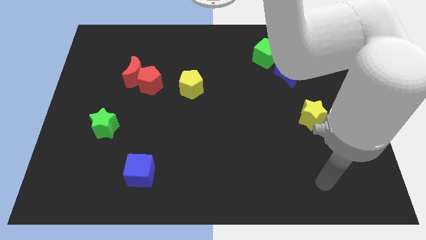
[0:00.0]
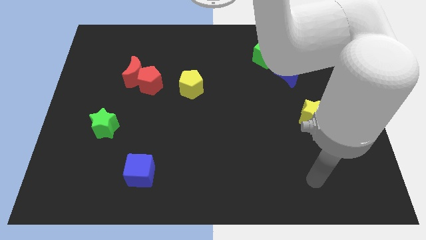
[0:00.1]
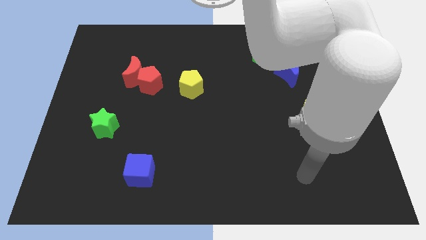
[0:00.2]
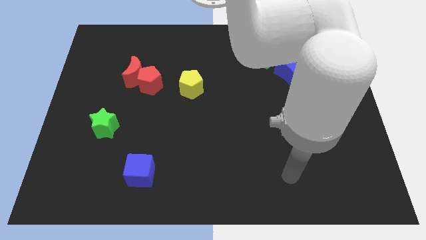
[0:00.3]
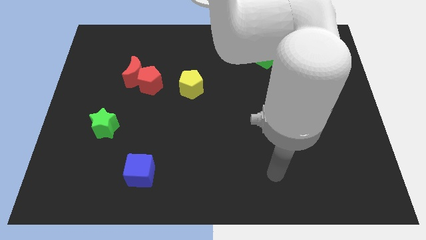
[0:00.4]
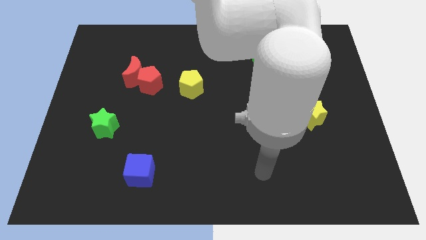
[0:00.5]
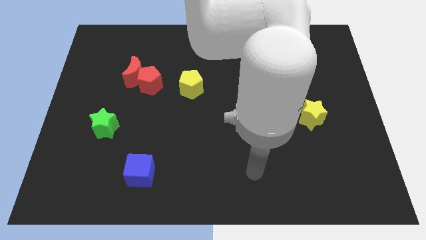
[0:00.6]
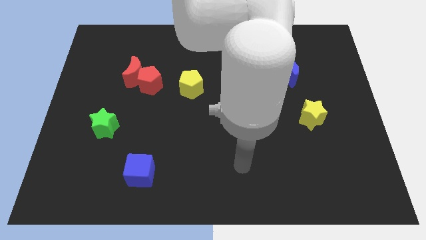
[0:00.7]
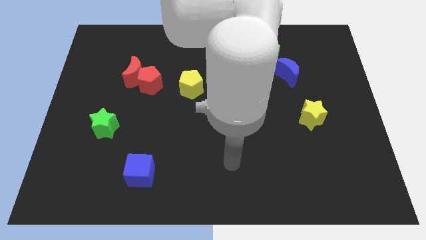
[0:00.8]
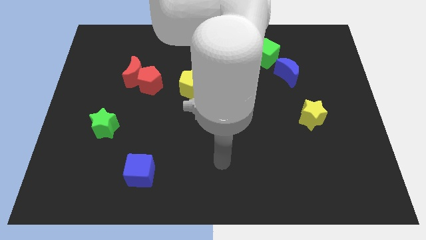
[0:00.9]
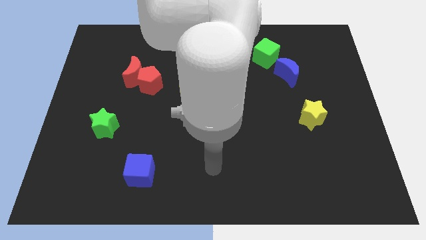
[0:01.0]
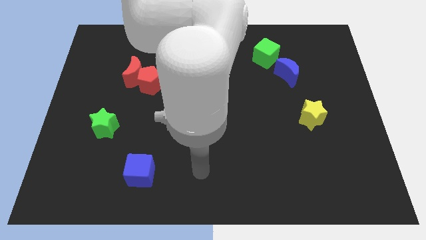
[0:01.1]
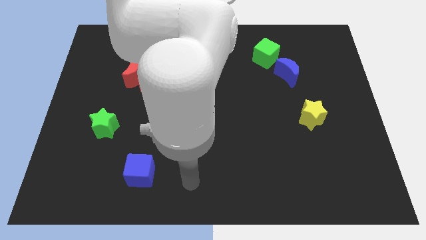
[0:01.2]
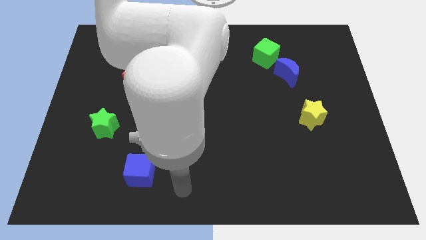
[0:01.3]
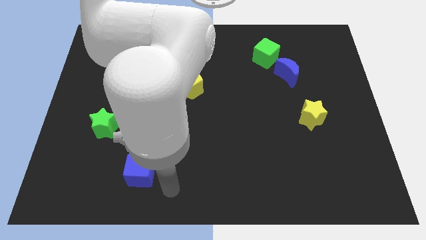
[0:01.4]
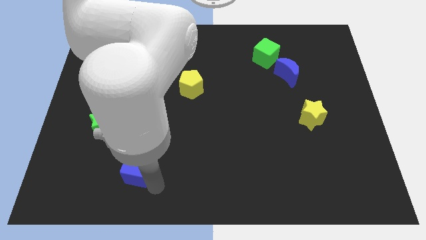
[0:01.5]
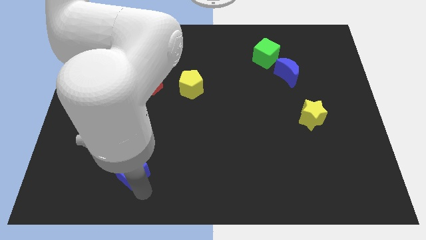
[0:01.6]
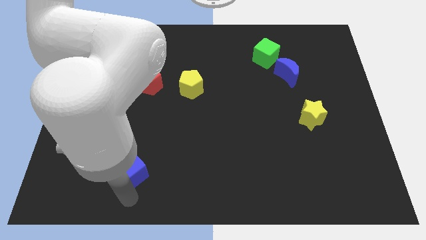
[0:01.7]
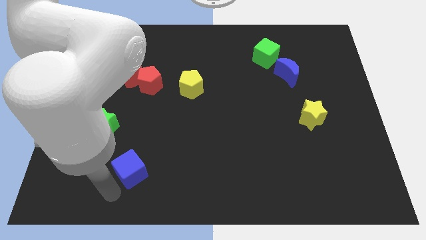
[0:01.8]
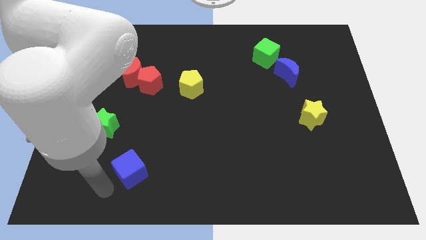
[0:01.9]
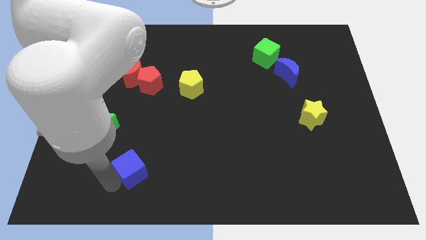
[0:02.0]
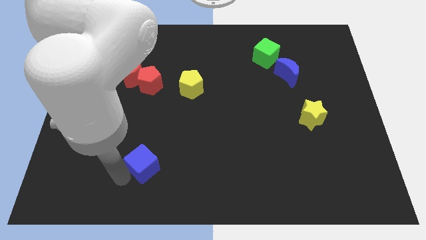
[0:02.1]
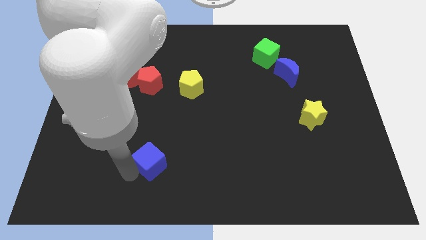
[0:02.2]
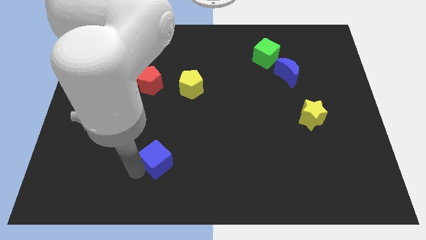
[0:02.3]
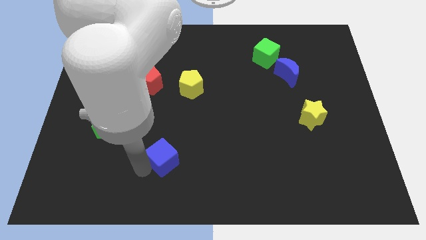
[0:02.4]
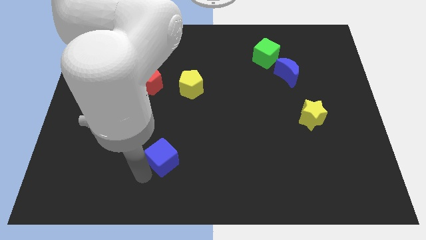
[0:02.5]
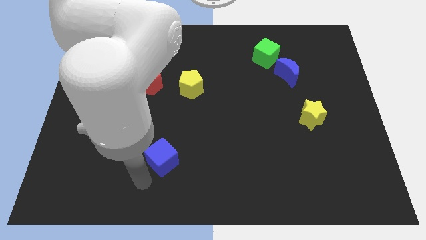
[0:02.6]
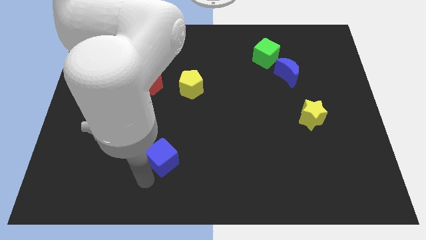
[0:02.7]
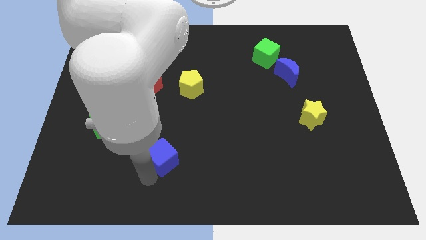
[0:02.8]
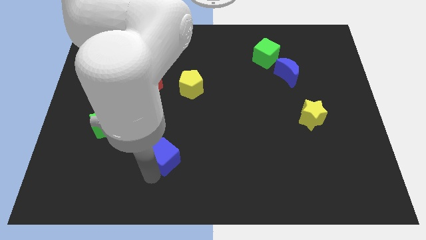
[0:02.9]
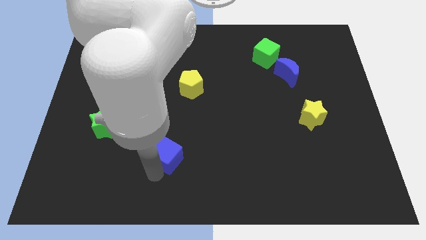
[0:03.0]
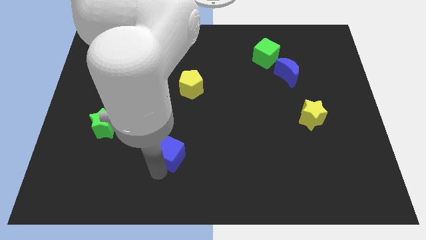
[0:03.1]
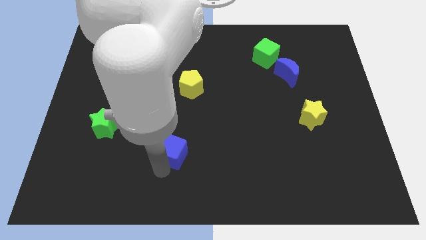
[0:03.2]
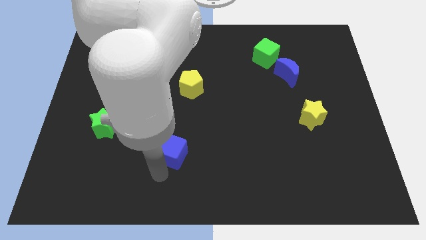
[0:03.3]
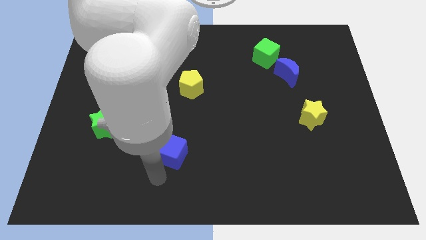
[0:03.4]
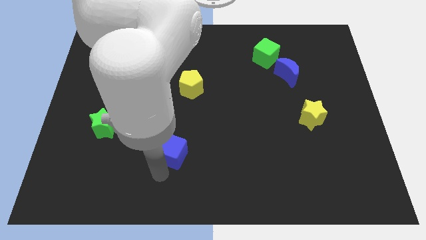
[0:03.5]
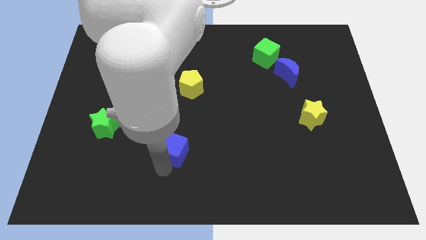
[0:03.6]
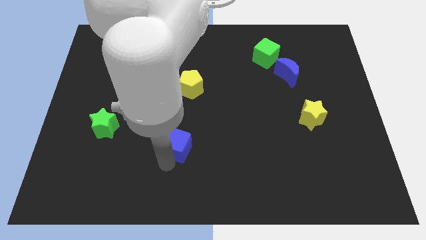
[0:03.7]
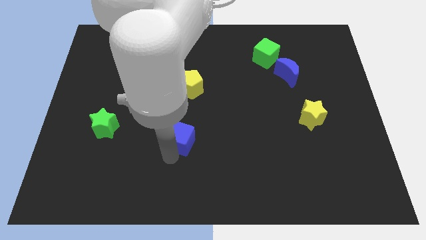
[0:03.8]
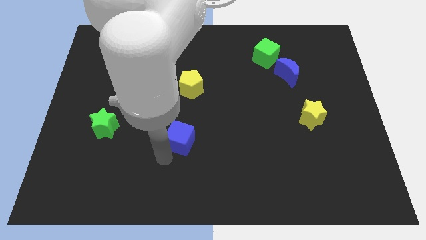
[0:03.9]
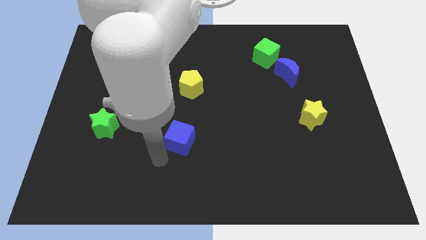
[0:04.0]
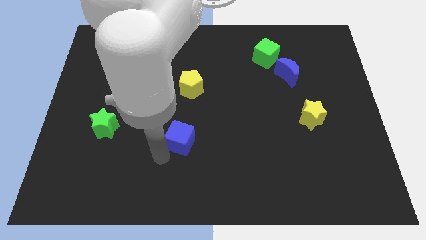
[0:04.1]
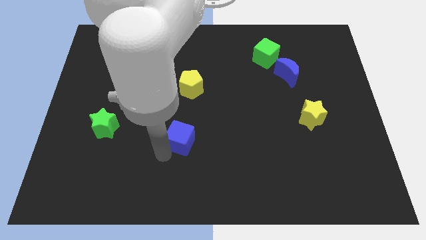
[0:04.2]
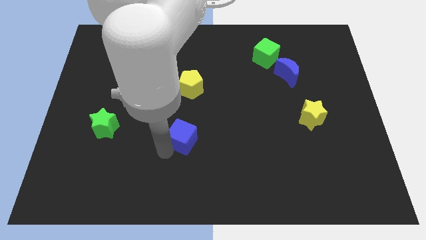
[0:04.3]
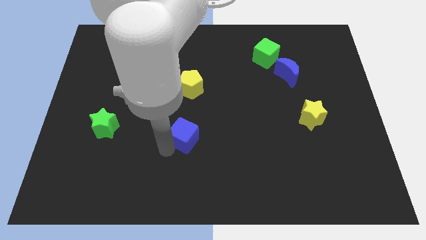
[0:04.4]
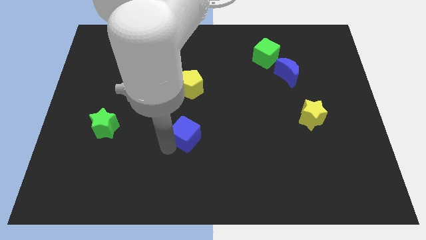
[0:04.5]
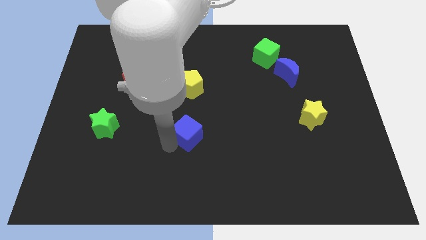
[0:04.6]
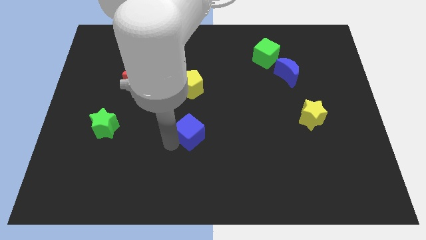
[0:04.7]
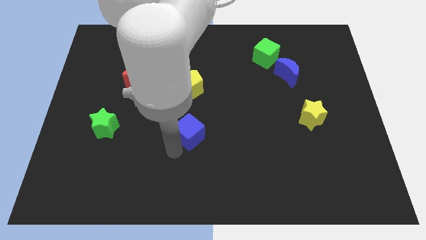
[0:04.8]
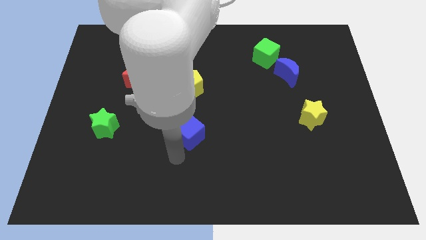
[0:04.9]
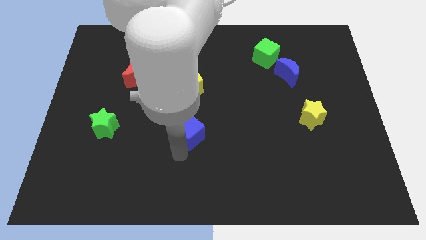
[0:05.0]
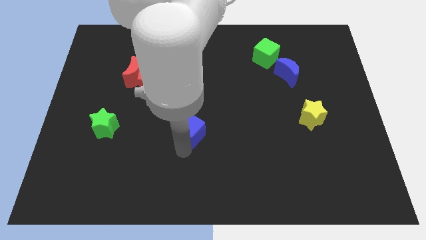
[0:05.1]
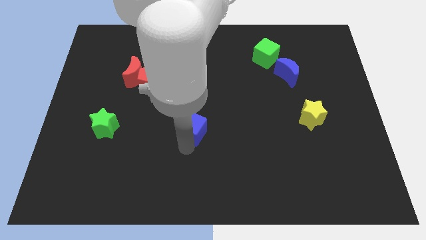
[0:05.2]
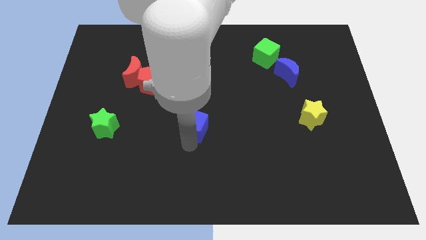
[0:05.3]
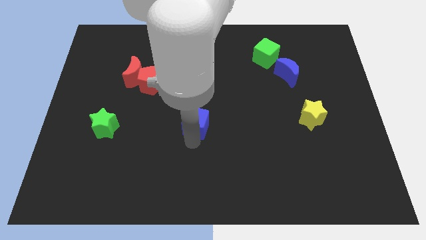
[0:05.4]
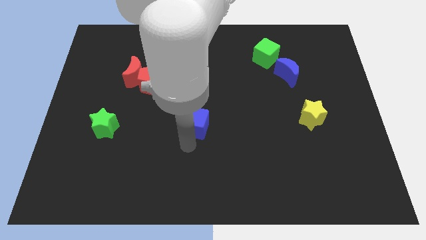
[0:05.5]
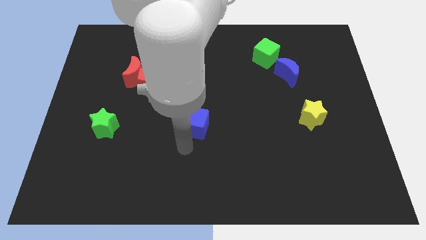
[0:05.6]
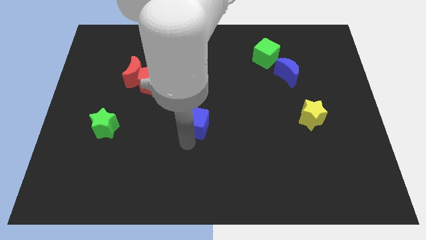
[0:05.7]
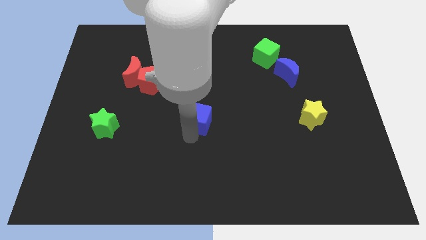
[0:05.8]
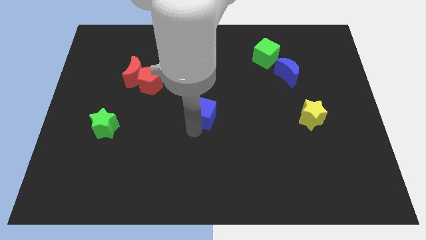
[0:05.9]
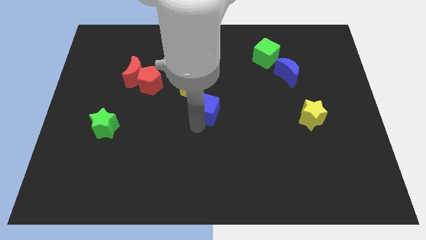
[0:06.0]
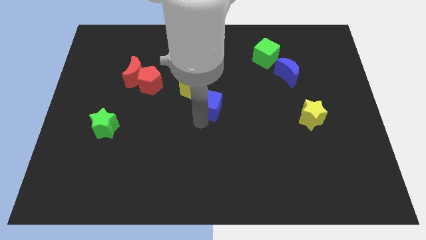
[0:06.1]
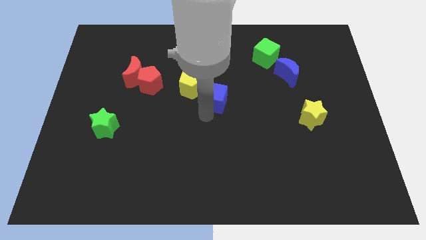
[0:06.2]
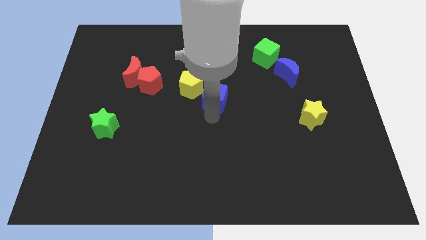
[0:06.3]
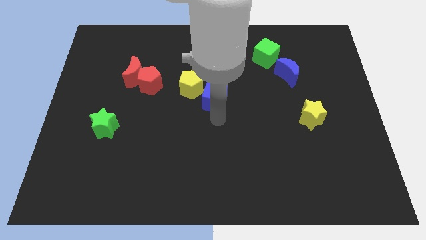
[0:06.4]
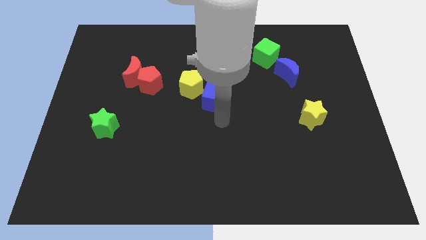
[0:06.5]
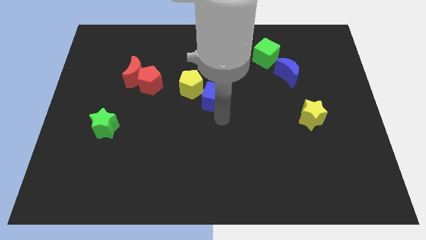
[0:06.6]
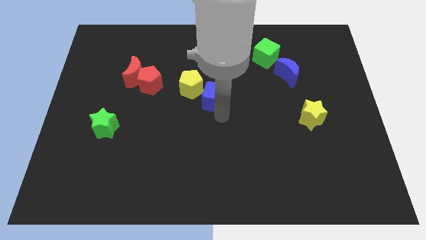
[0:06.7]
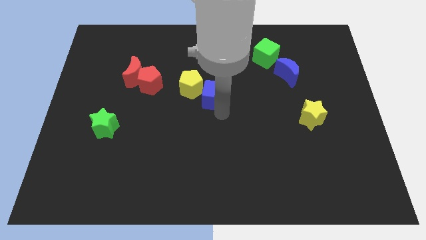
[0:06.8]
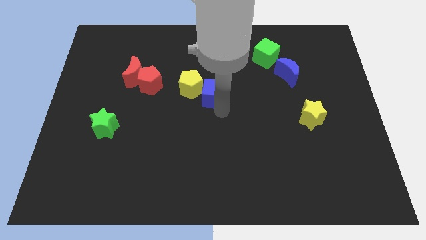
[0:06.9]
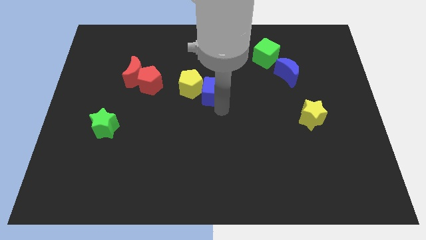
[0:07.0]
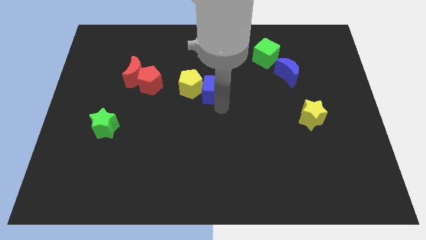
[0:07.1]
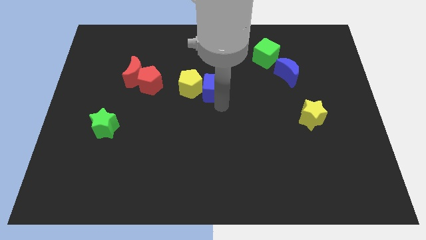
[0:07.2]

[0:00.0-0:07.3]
slide the blue cube right of the red pentagon
